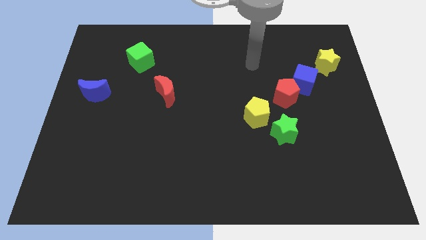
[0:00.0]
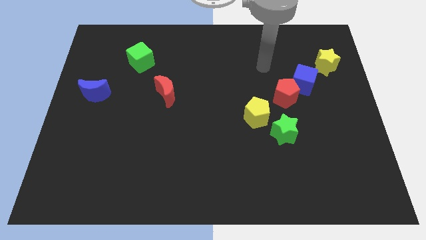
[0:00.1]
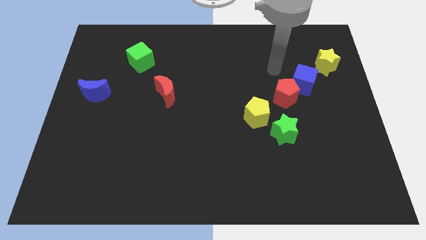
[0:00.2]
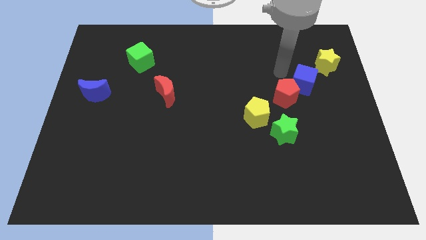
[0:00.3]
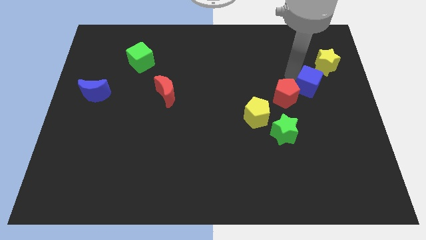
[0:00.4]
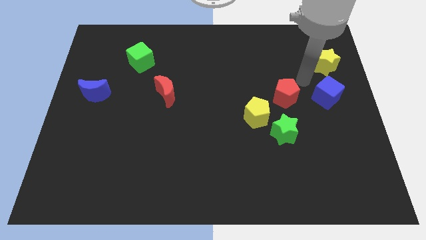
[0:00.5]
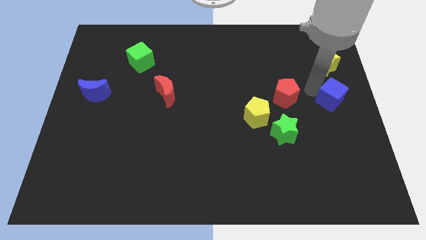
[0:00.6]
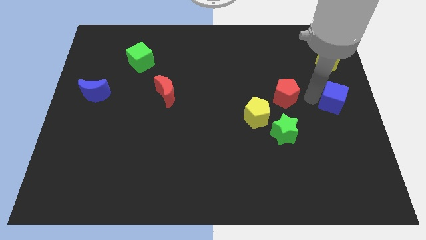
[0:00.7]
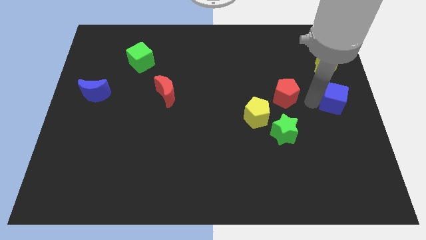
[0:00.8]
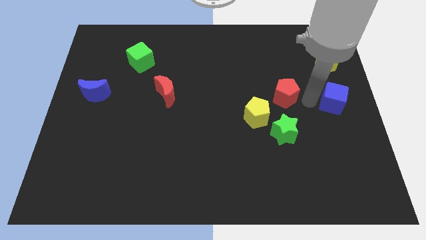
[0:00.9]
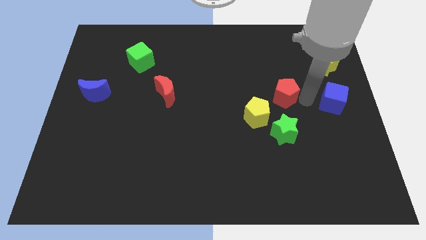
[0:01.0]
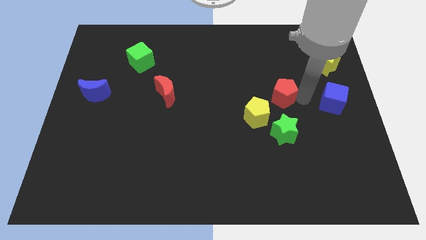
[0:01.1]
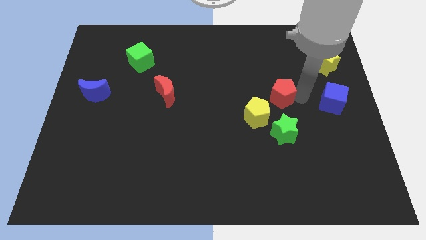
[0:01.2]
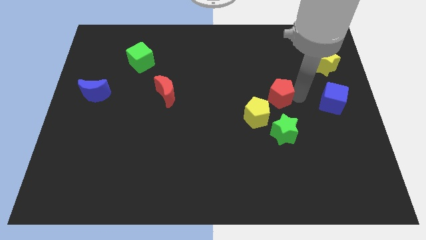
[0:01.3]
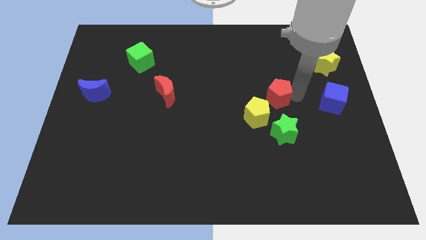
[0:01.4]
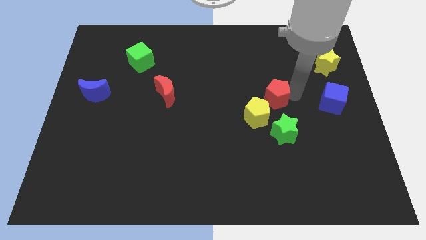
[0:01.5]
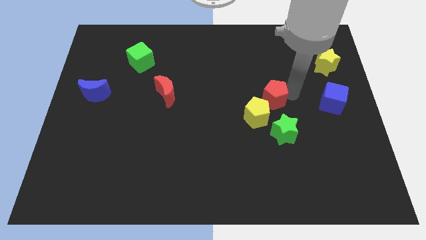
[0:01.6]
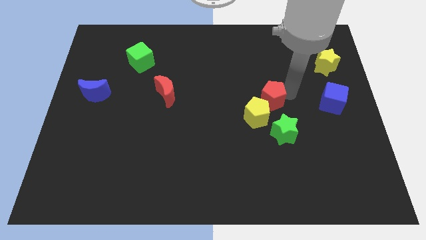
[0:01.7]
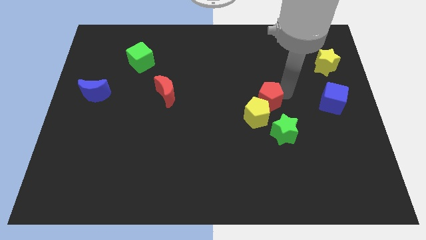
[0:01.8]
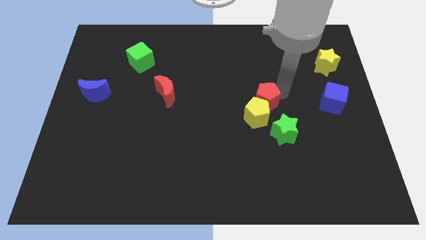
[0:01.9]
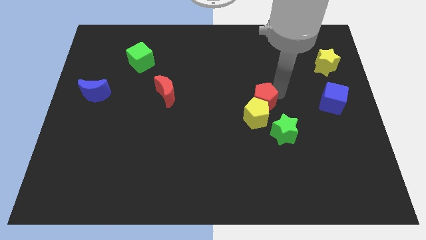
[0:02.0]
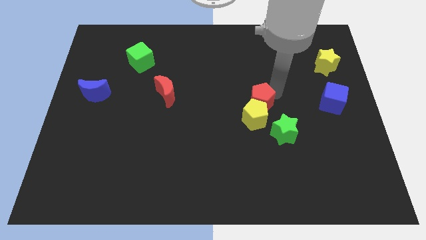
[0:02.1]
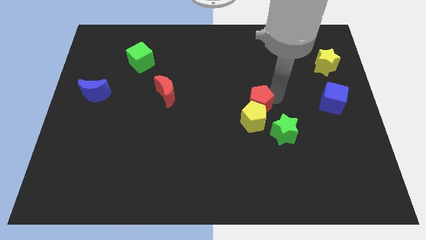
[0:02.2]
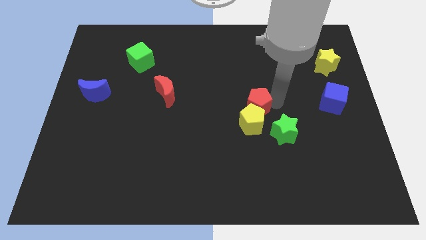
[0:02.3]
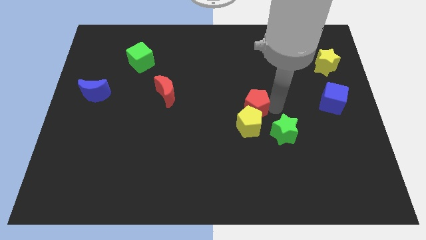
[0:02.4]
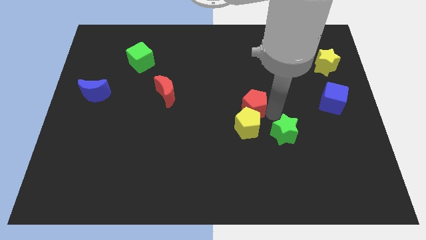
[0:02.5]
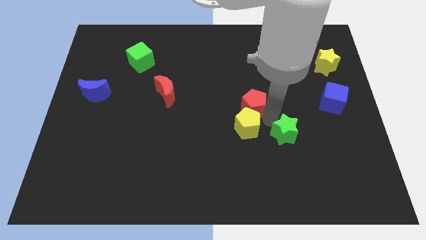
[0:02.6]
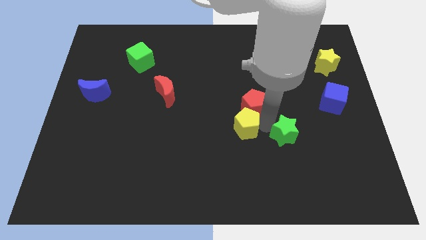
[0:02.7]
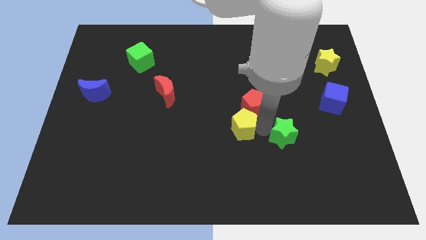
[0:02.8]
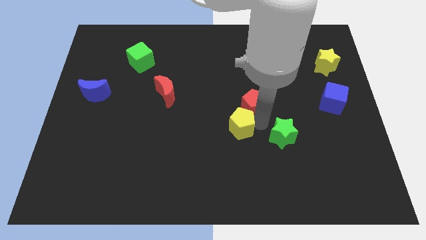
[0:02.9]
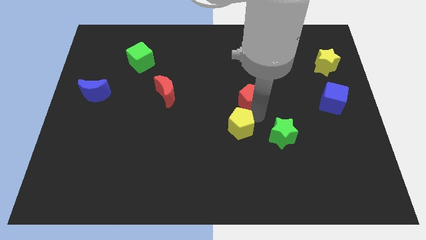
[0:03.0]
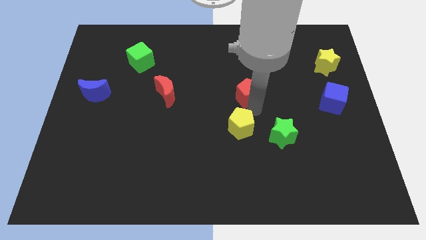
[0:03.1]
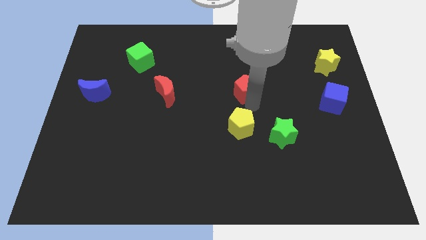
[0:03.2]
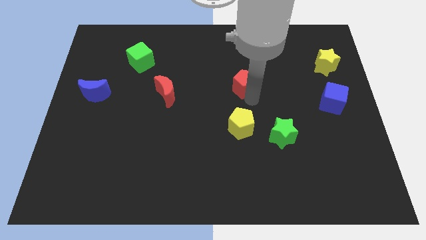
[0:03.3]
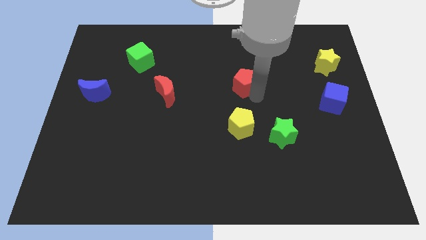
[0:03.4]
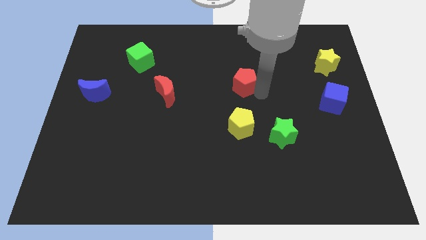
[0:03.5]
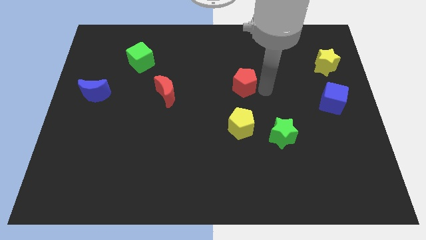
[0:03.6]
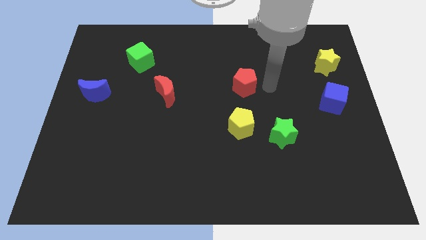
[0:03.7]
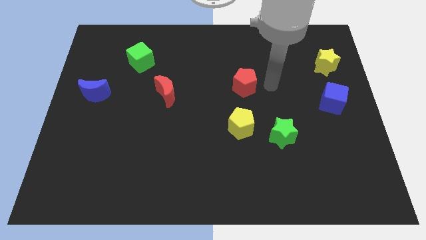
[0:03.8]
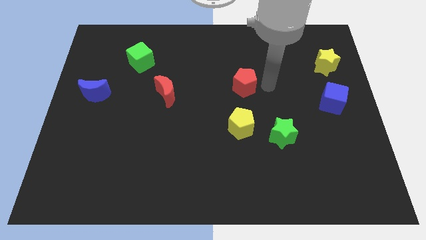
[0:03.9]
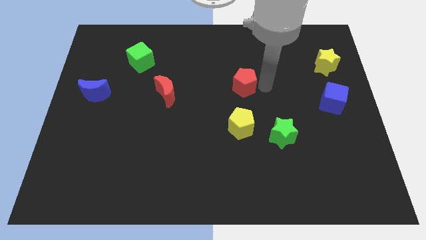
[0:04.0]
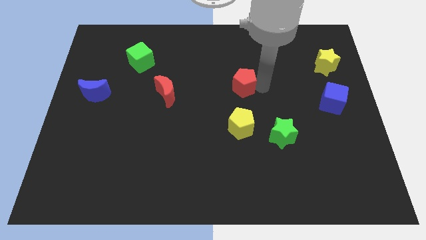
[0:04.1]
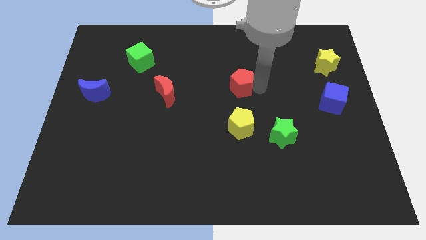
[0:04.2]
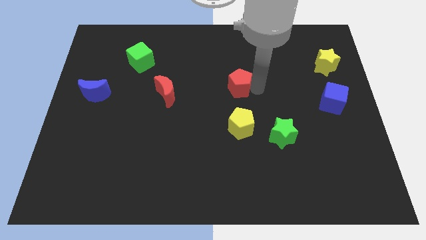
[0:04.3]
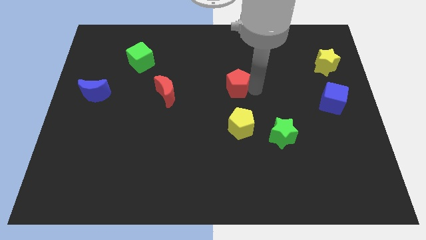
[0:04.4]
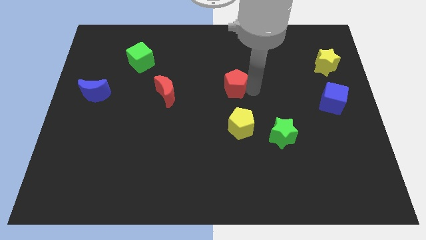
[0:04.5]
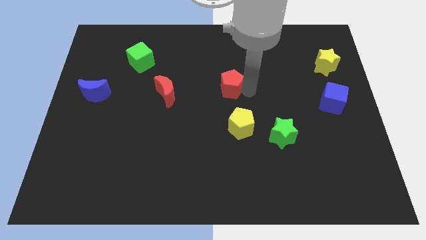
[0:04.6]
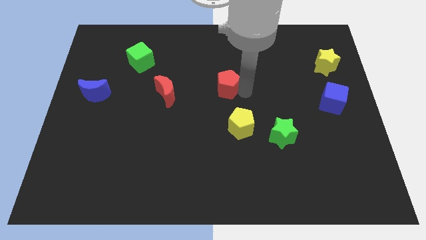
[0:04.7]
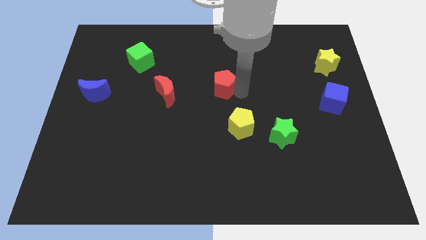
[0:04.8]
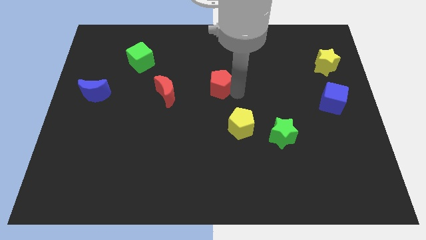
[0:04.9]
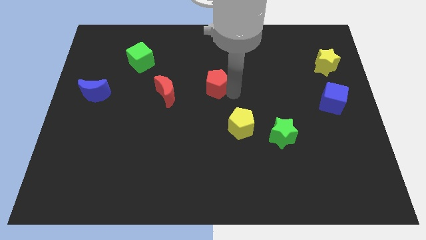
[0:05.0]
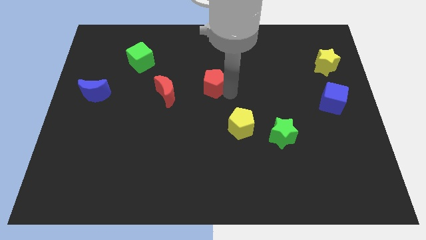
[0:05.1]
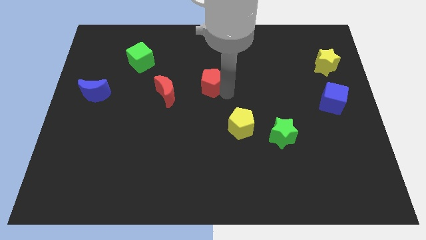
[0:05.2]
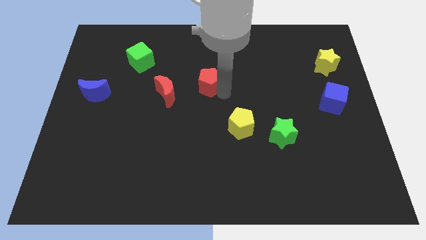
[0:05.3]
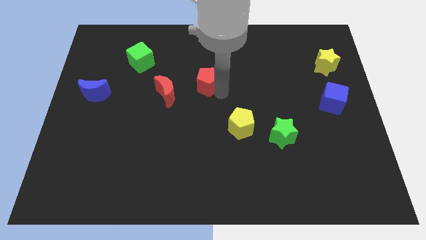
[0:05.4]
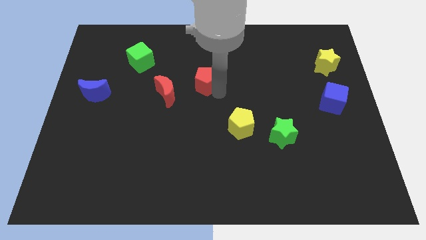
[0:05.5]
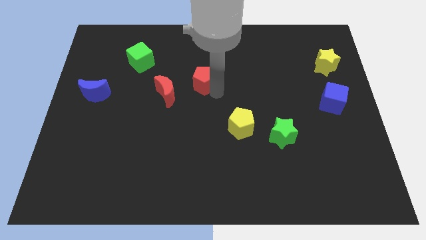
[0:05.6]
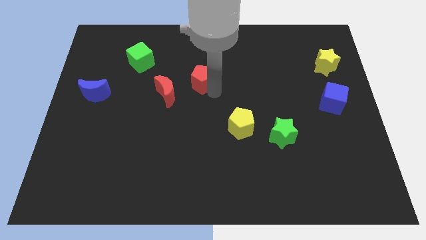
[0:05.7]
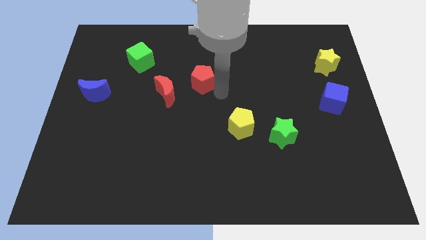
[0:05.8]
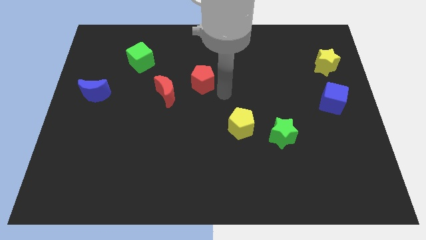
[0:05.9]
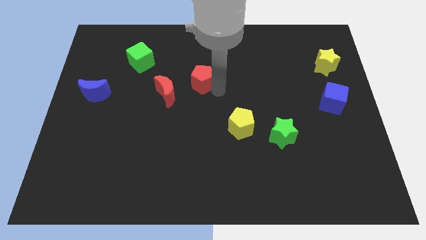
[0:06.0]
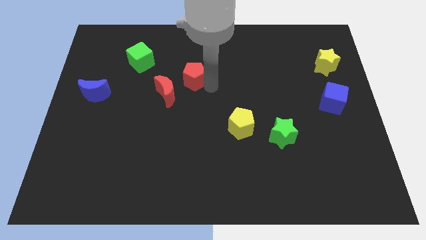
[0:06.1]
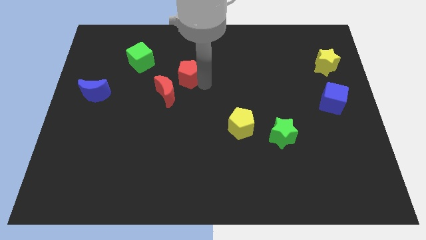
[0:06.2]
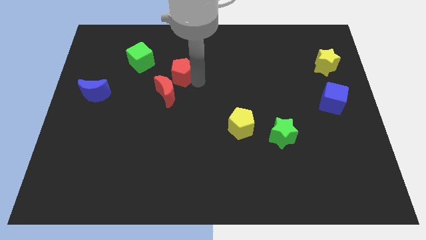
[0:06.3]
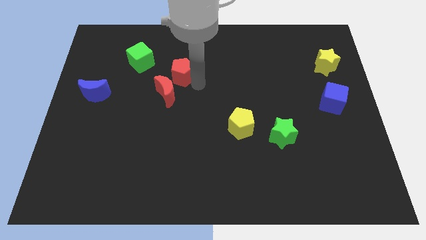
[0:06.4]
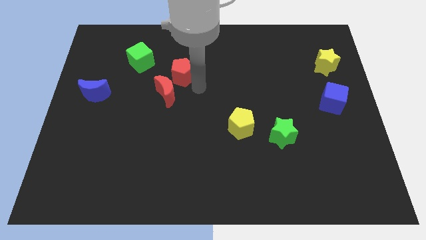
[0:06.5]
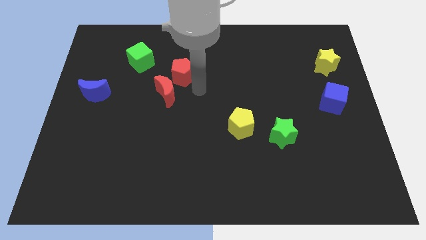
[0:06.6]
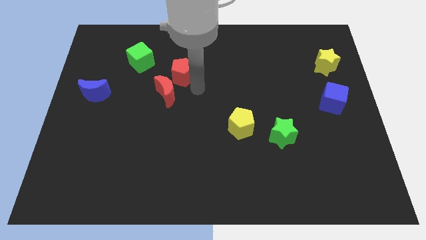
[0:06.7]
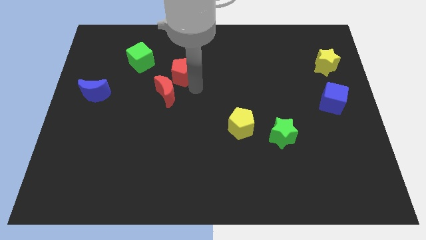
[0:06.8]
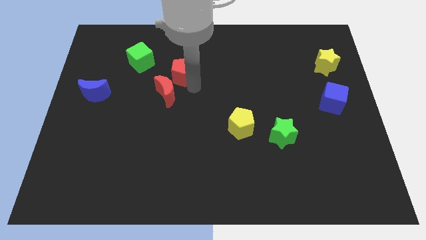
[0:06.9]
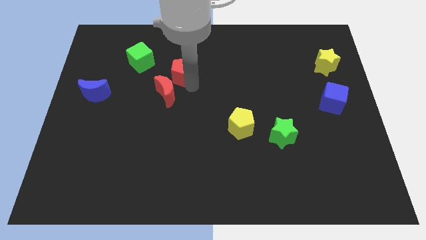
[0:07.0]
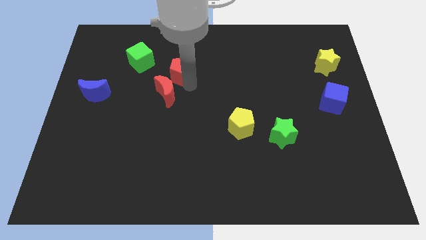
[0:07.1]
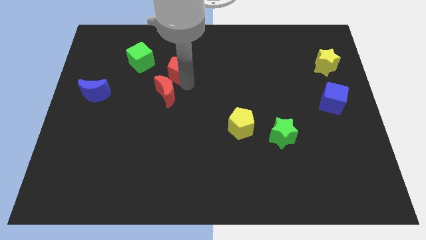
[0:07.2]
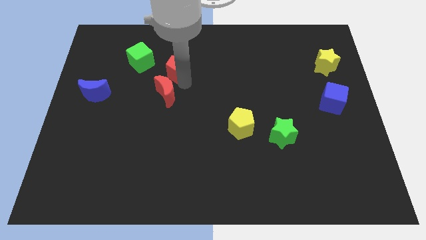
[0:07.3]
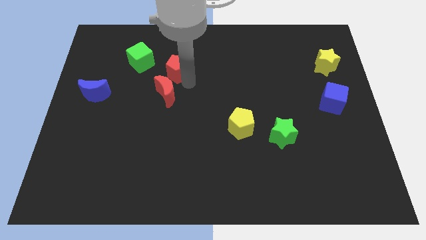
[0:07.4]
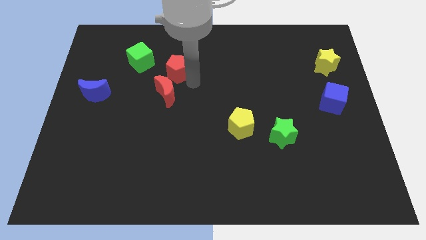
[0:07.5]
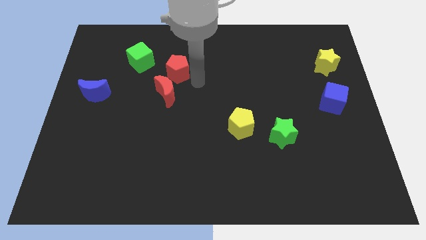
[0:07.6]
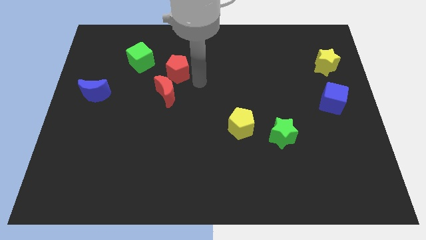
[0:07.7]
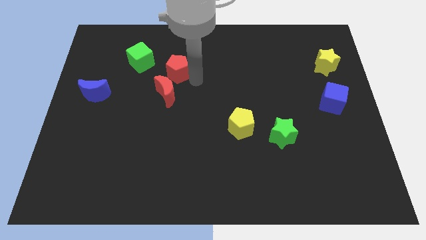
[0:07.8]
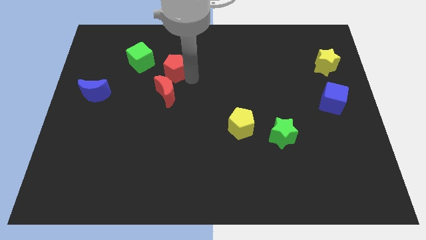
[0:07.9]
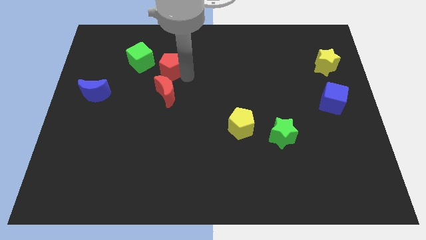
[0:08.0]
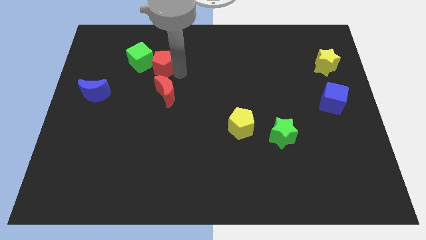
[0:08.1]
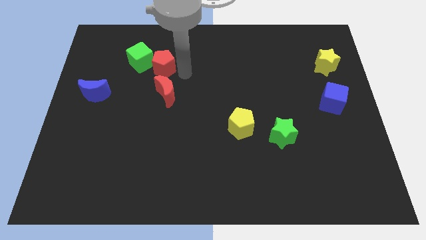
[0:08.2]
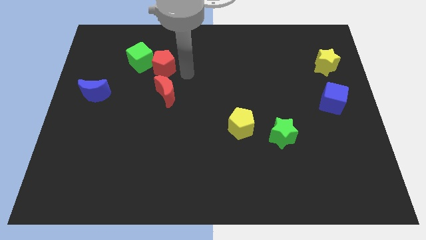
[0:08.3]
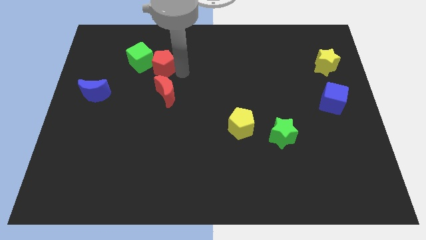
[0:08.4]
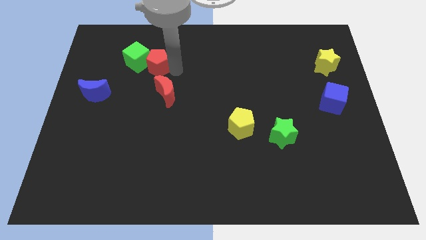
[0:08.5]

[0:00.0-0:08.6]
slide the red pentagon to the green cube
